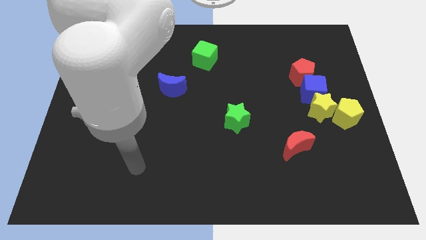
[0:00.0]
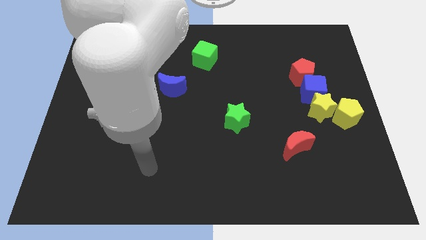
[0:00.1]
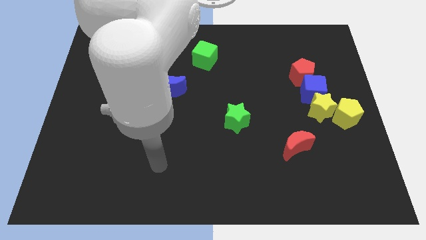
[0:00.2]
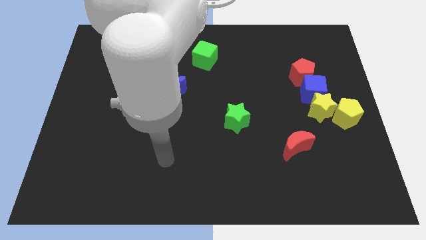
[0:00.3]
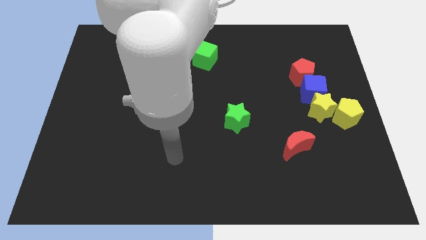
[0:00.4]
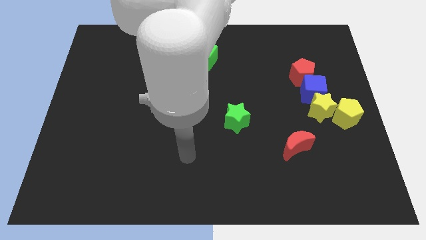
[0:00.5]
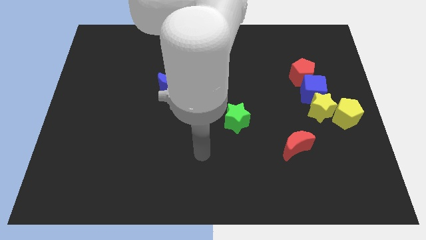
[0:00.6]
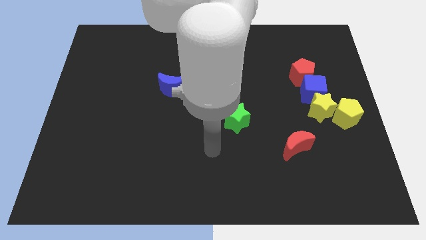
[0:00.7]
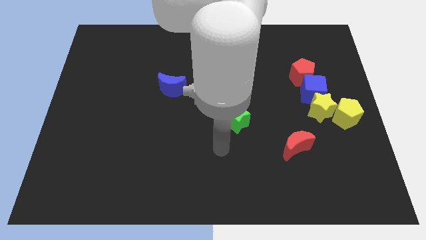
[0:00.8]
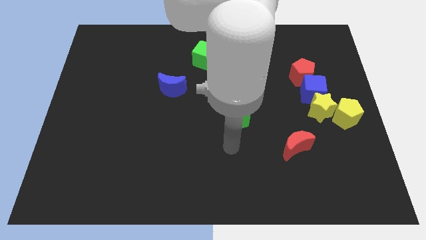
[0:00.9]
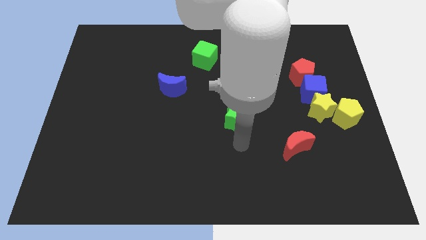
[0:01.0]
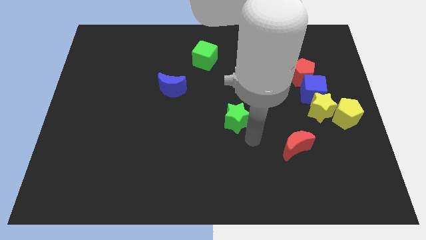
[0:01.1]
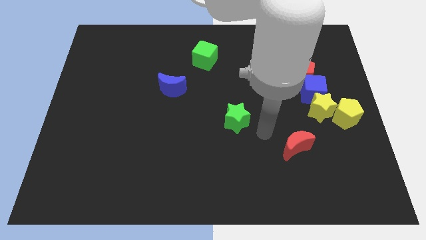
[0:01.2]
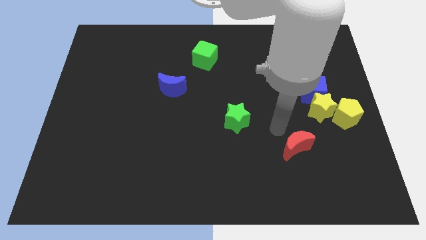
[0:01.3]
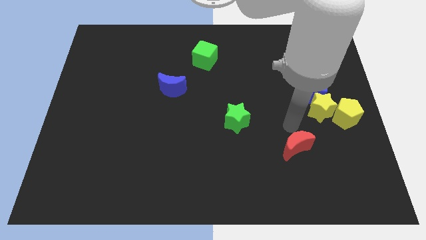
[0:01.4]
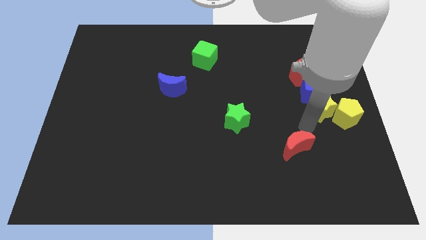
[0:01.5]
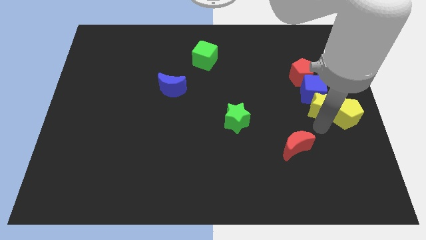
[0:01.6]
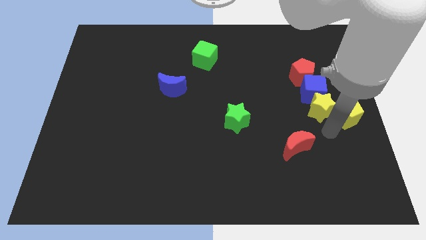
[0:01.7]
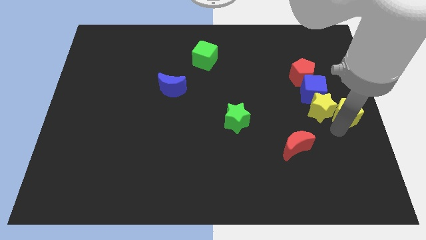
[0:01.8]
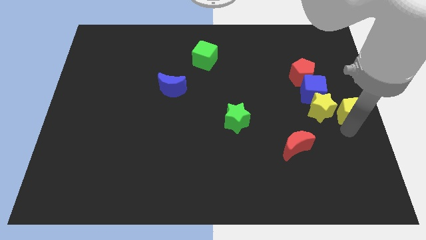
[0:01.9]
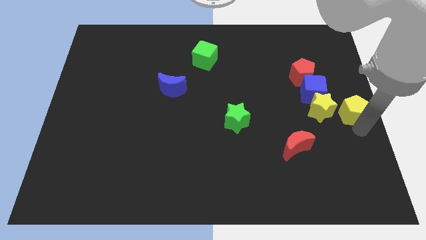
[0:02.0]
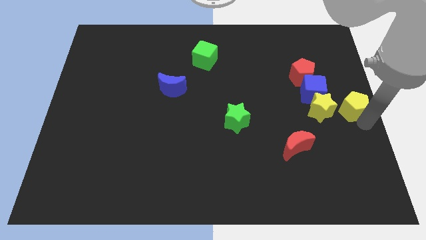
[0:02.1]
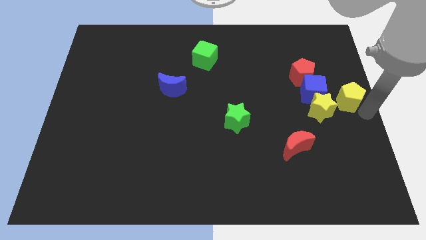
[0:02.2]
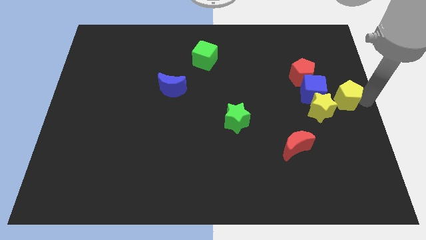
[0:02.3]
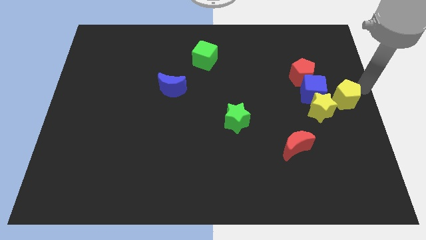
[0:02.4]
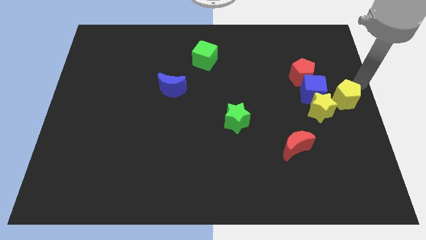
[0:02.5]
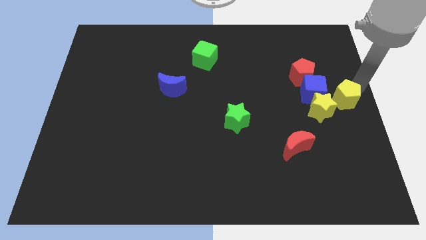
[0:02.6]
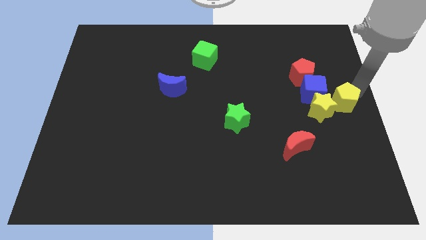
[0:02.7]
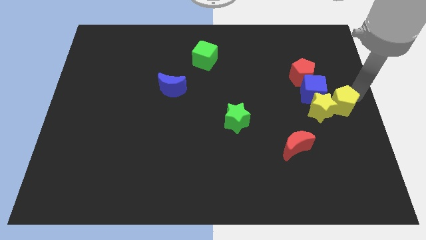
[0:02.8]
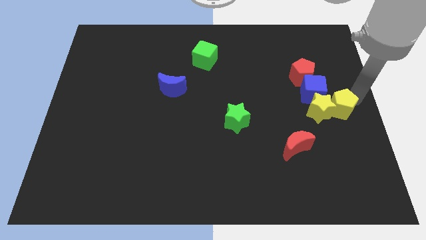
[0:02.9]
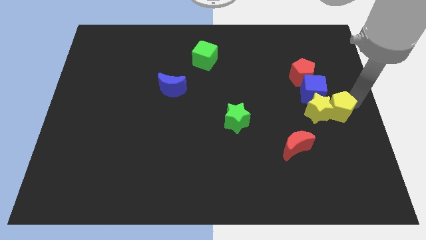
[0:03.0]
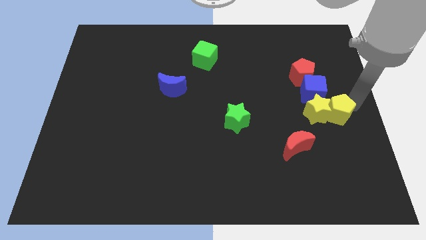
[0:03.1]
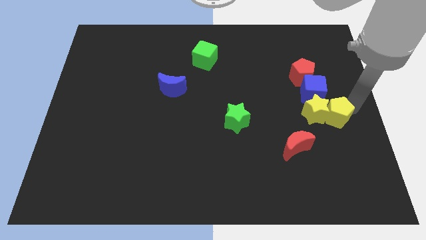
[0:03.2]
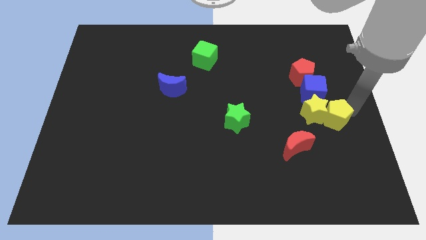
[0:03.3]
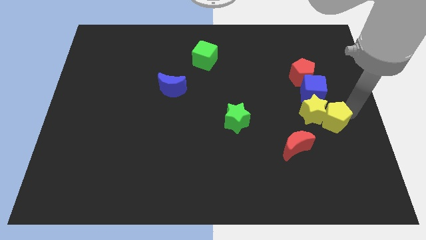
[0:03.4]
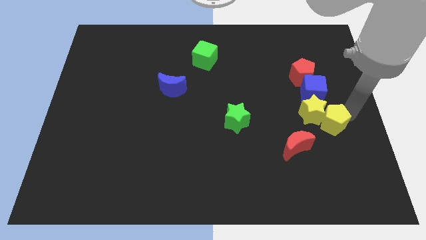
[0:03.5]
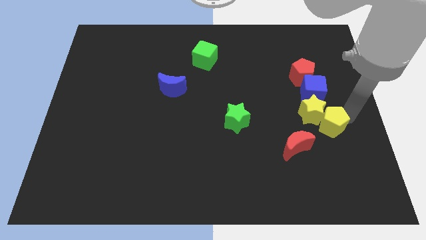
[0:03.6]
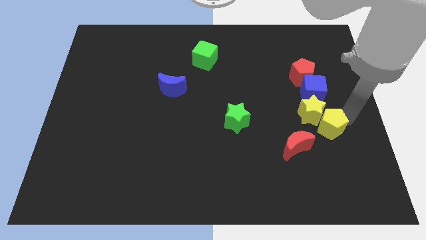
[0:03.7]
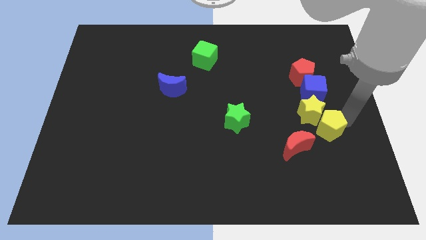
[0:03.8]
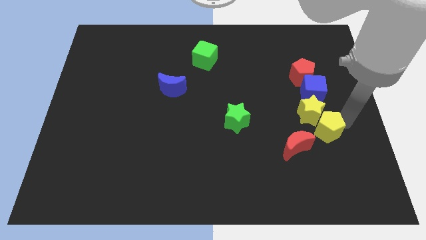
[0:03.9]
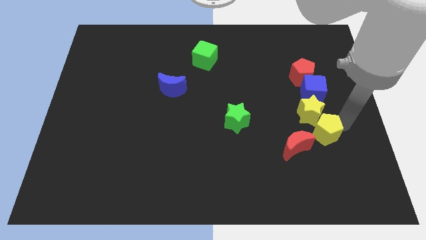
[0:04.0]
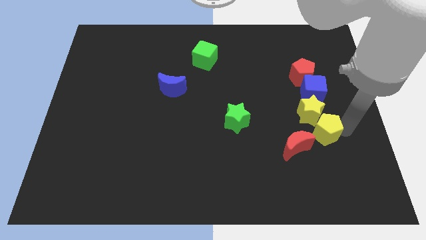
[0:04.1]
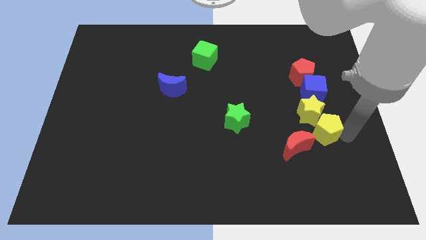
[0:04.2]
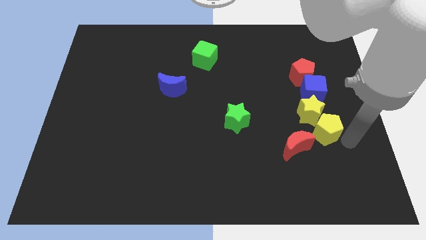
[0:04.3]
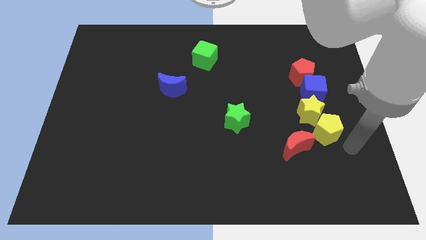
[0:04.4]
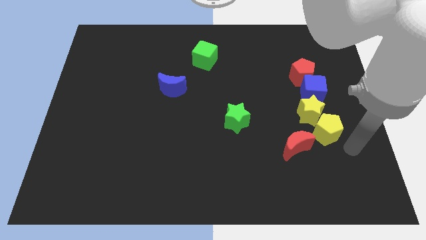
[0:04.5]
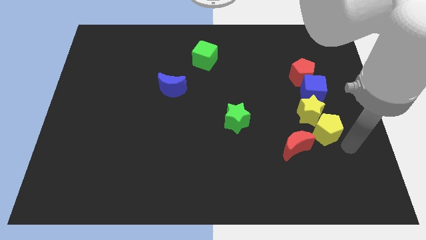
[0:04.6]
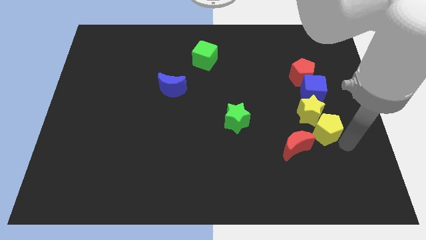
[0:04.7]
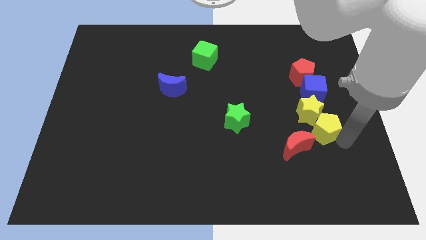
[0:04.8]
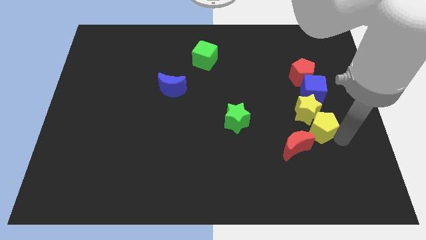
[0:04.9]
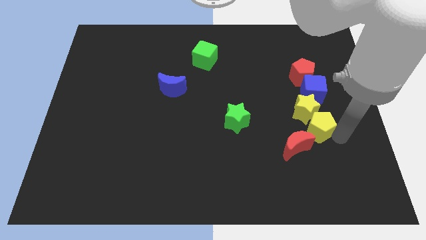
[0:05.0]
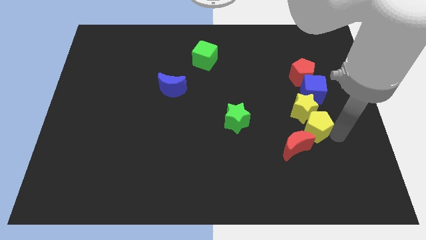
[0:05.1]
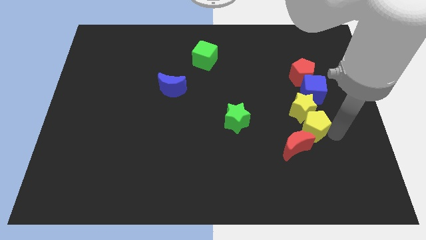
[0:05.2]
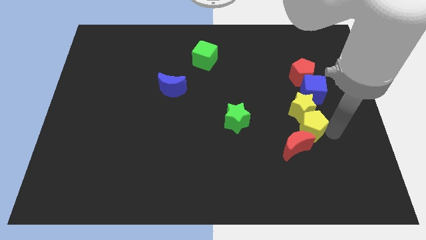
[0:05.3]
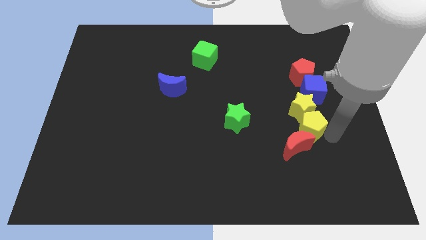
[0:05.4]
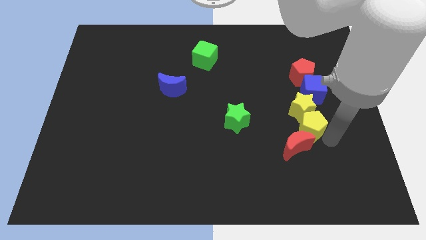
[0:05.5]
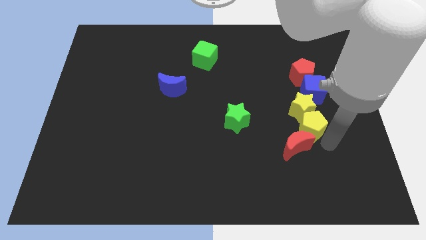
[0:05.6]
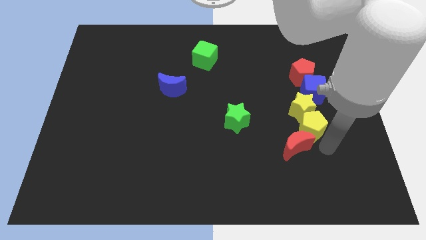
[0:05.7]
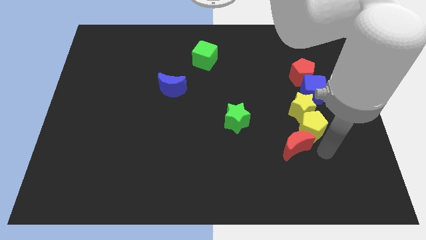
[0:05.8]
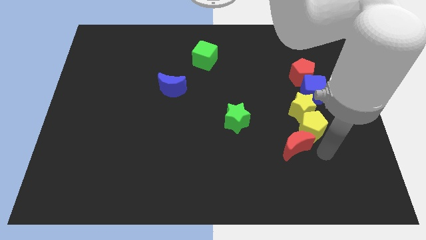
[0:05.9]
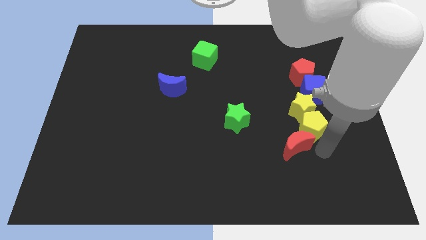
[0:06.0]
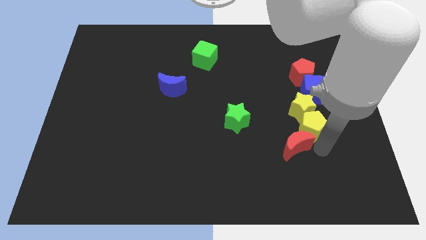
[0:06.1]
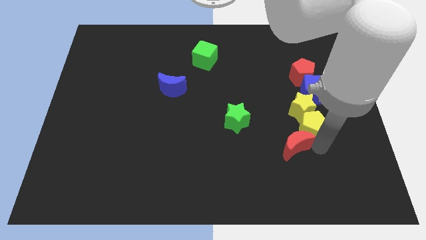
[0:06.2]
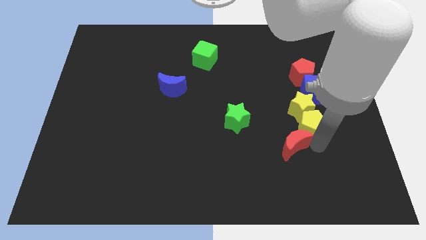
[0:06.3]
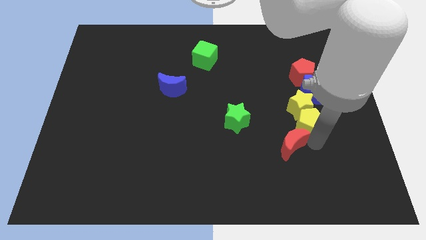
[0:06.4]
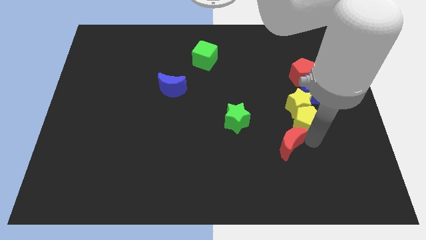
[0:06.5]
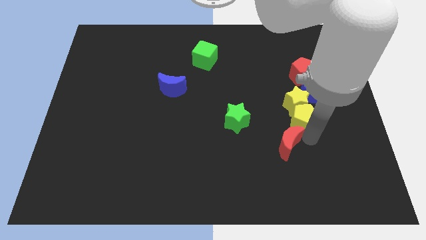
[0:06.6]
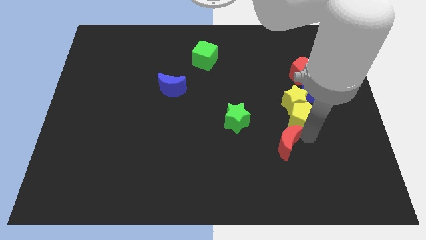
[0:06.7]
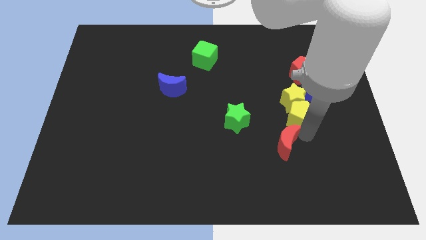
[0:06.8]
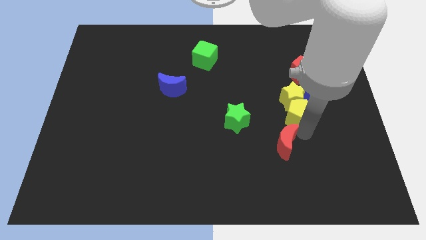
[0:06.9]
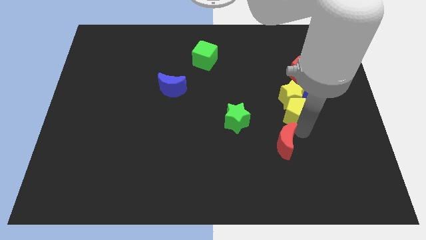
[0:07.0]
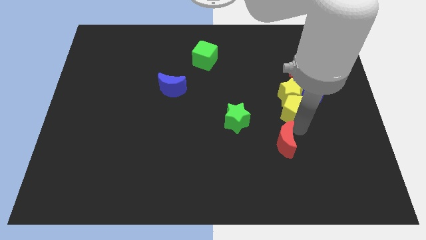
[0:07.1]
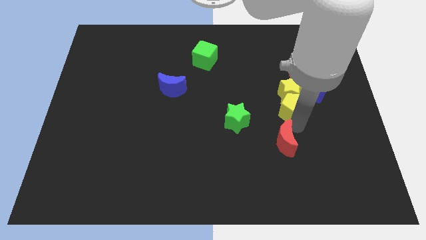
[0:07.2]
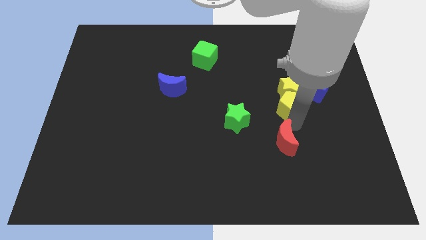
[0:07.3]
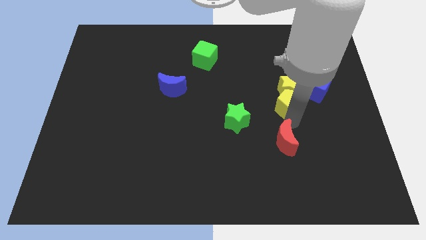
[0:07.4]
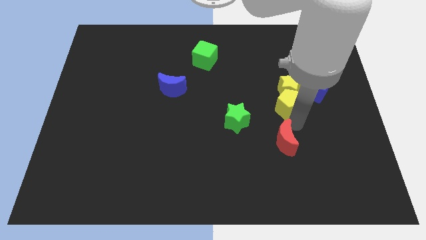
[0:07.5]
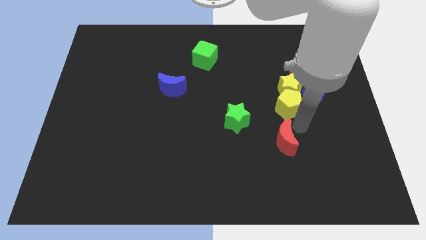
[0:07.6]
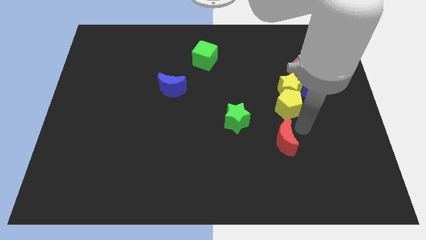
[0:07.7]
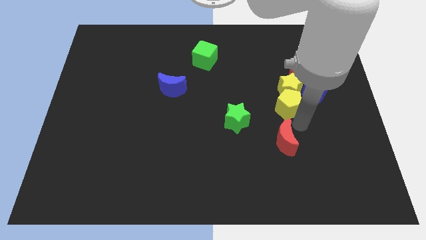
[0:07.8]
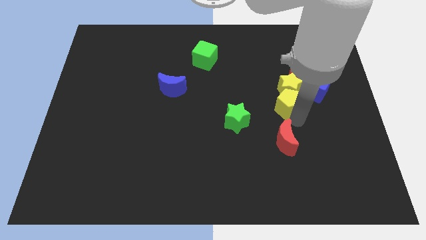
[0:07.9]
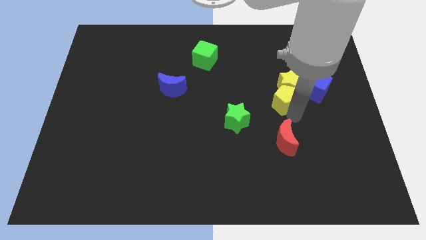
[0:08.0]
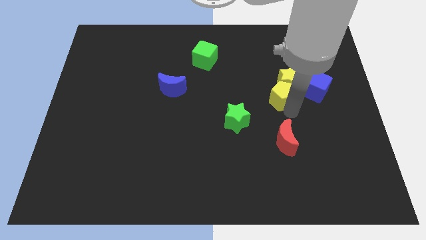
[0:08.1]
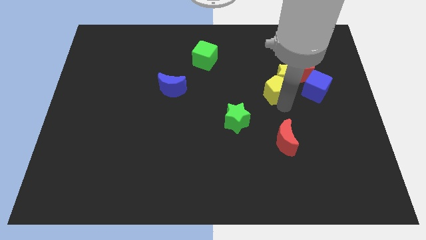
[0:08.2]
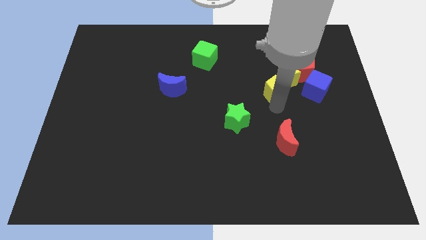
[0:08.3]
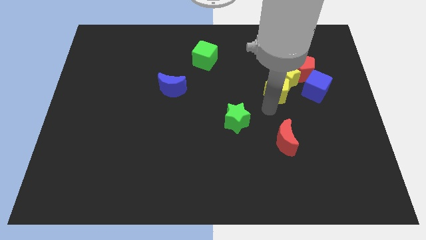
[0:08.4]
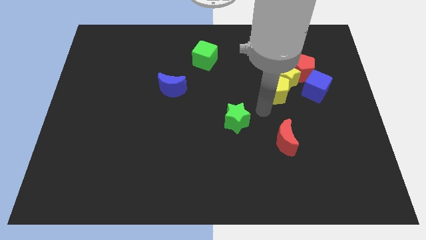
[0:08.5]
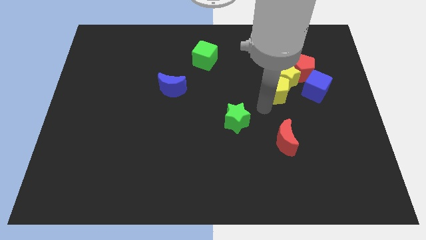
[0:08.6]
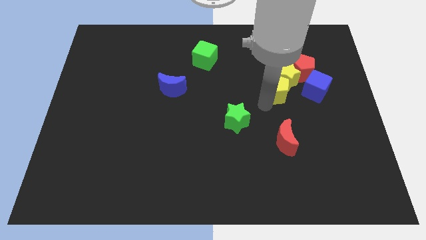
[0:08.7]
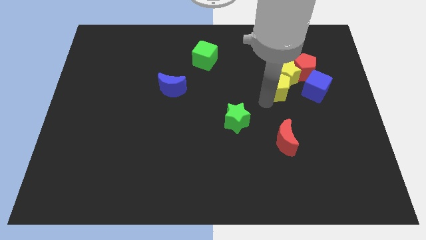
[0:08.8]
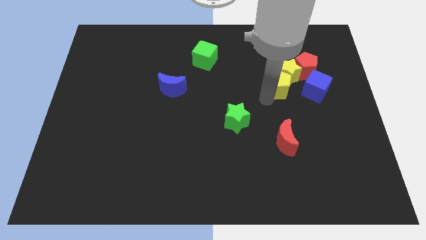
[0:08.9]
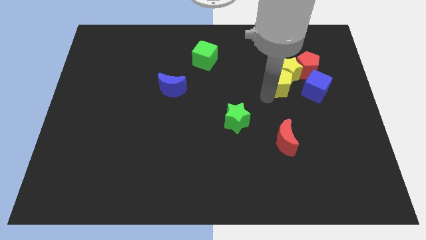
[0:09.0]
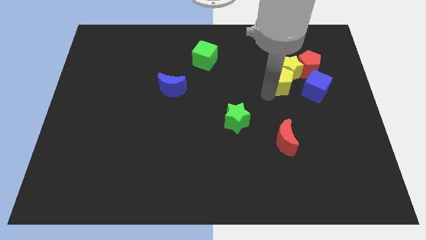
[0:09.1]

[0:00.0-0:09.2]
push the yellow pentagon diagonally up and to the left of the blue cube
